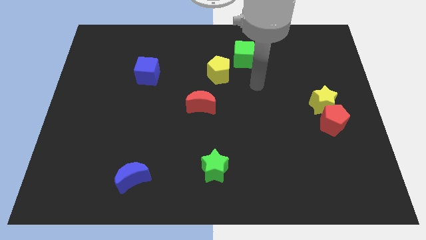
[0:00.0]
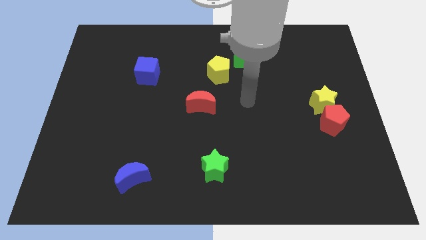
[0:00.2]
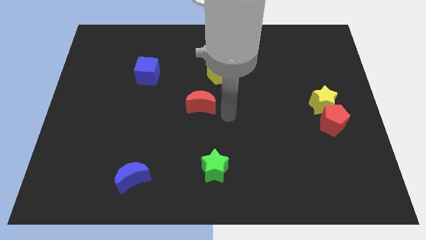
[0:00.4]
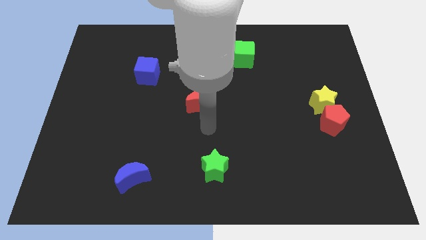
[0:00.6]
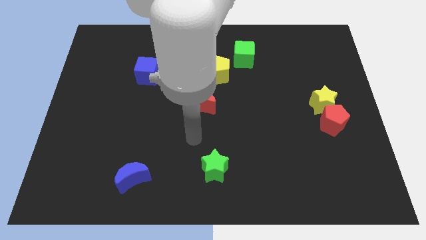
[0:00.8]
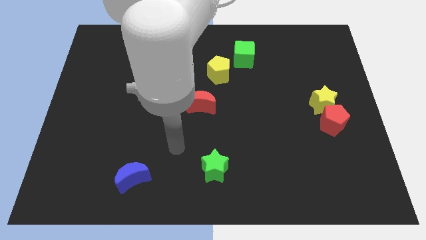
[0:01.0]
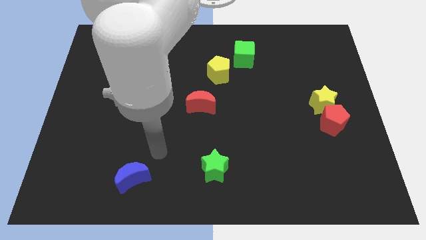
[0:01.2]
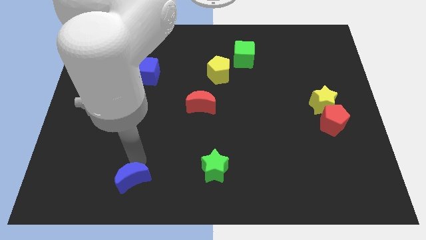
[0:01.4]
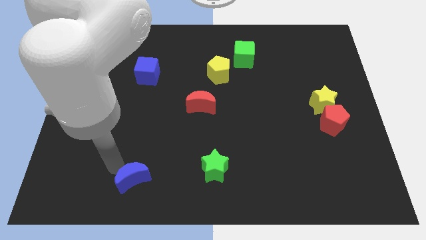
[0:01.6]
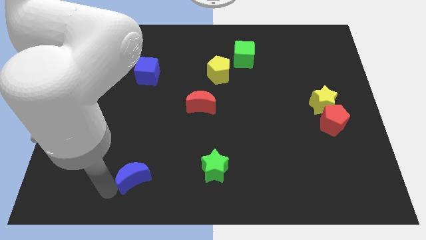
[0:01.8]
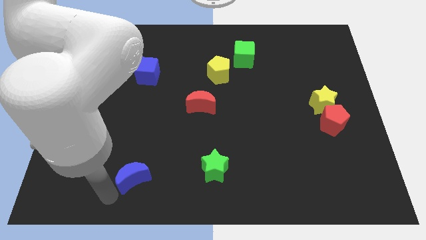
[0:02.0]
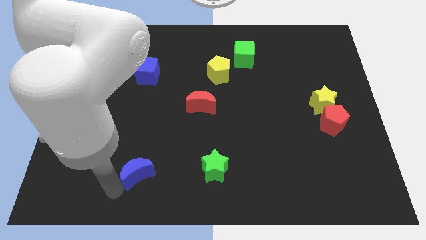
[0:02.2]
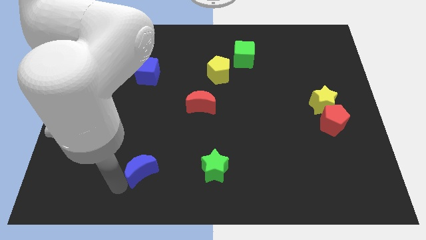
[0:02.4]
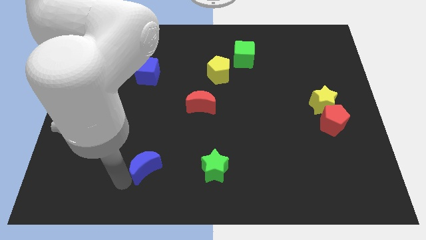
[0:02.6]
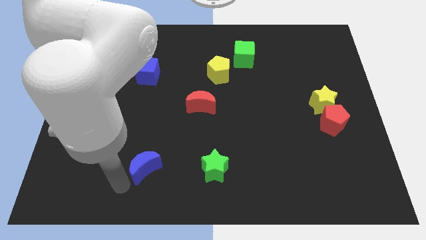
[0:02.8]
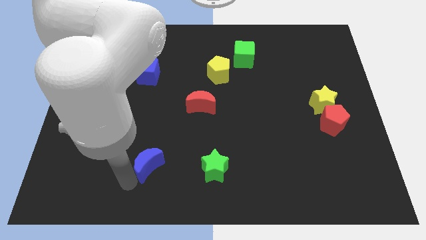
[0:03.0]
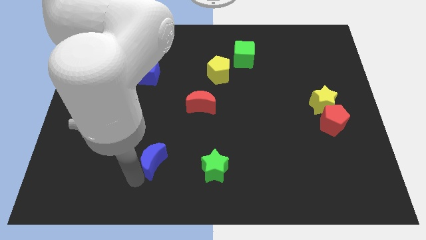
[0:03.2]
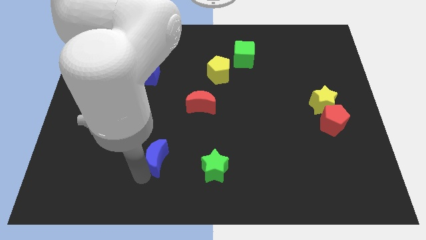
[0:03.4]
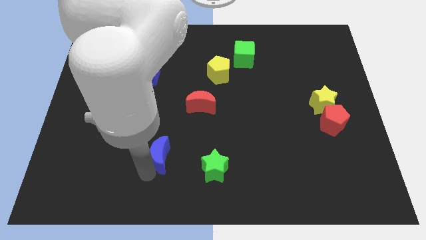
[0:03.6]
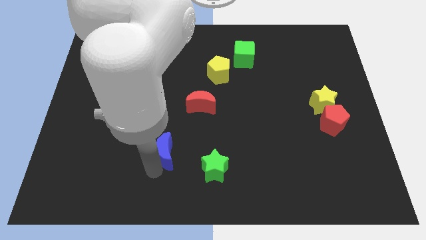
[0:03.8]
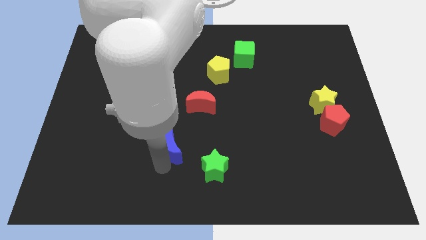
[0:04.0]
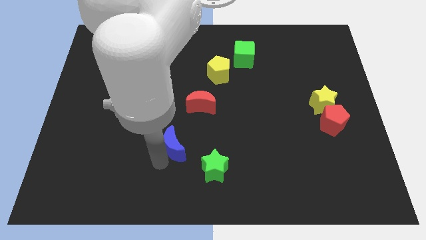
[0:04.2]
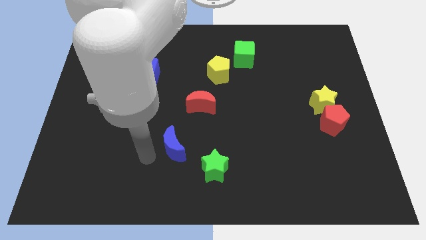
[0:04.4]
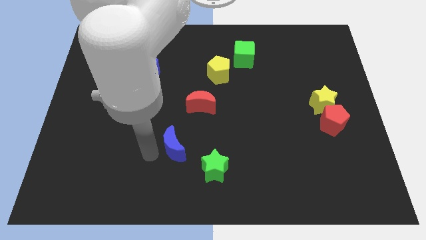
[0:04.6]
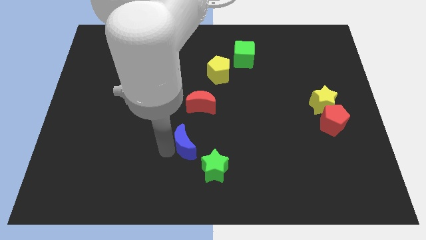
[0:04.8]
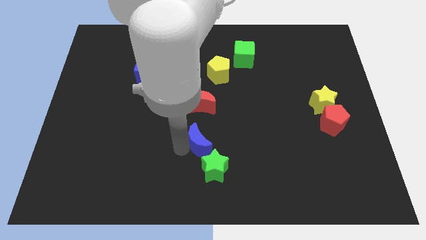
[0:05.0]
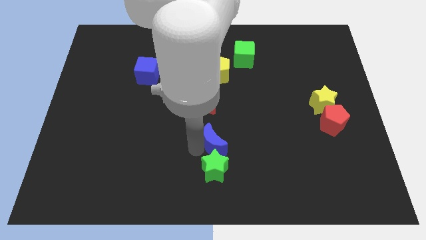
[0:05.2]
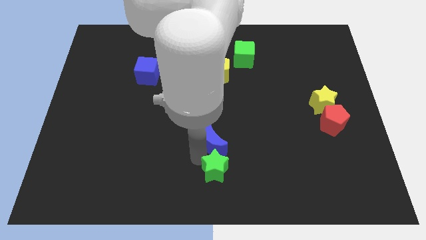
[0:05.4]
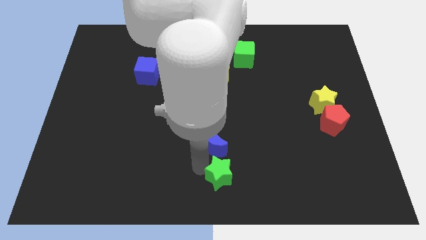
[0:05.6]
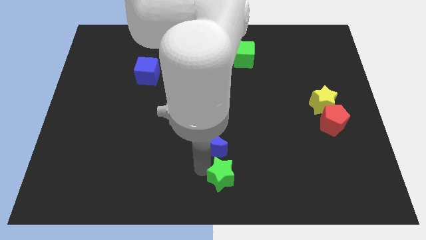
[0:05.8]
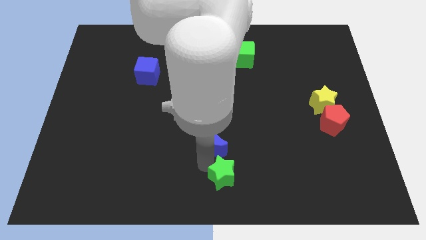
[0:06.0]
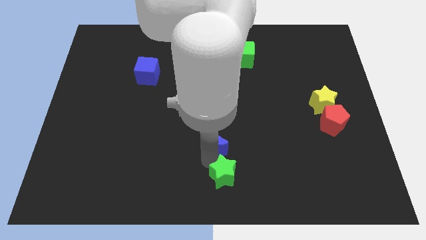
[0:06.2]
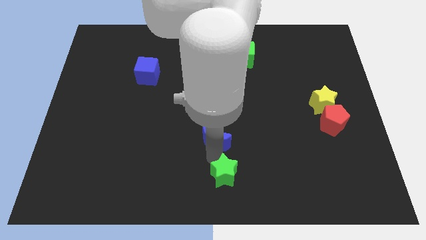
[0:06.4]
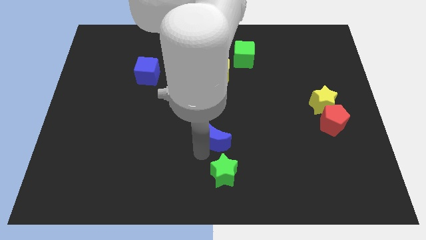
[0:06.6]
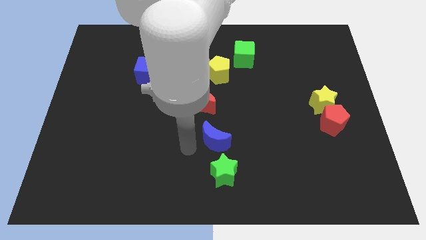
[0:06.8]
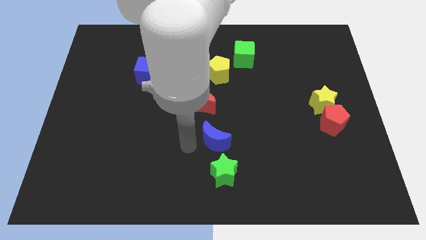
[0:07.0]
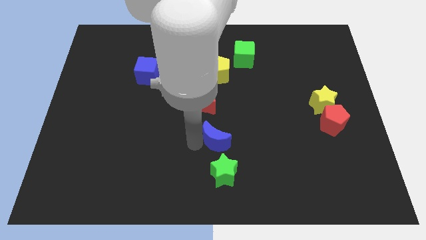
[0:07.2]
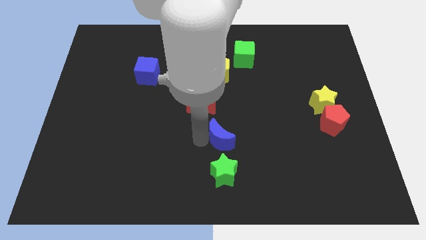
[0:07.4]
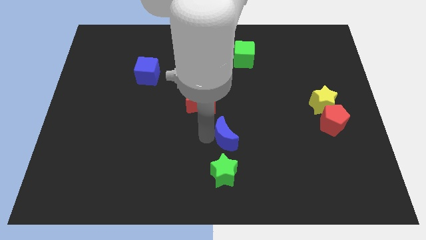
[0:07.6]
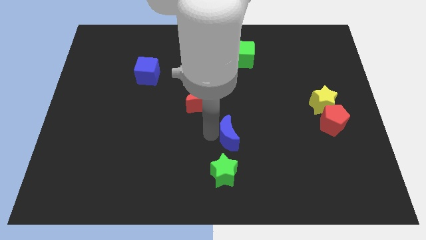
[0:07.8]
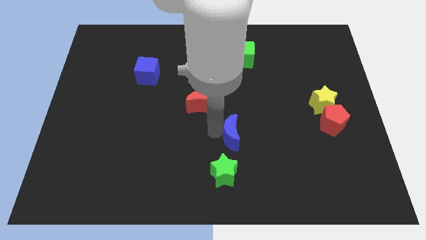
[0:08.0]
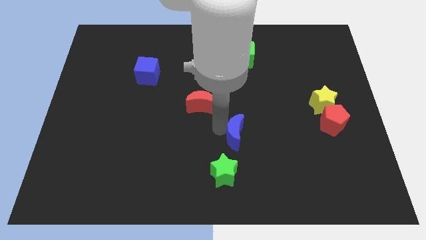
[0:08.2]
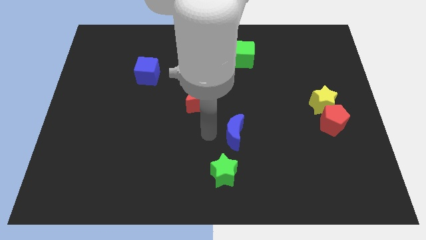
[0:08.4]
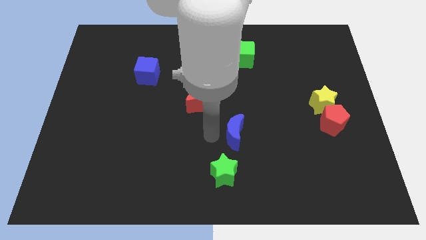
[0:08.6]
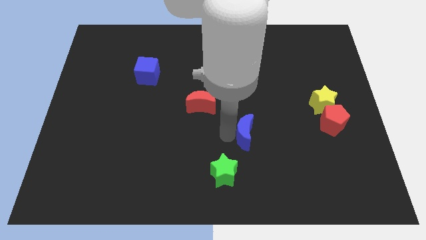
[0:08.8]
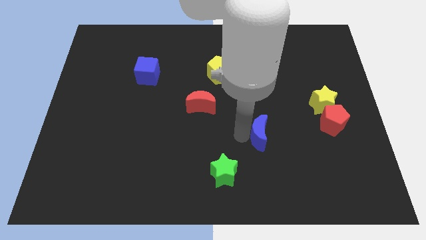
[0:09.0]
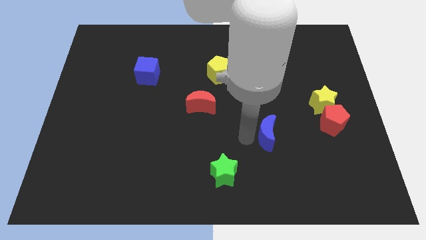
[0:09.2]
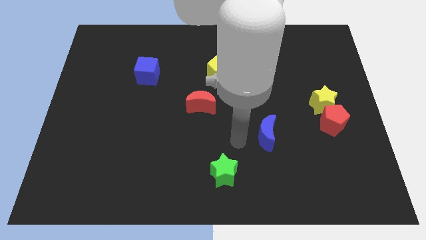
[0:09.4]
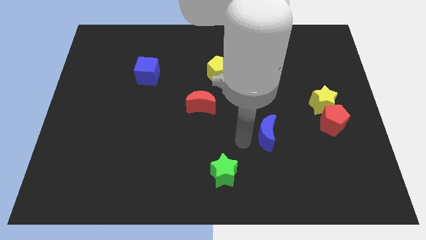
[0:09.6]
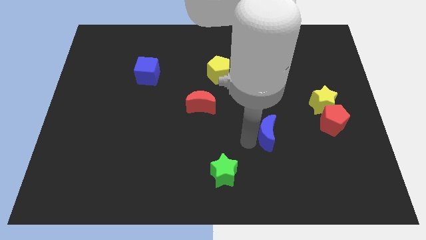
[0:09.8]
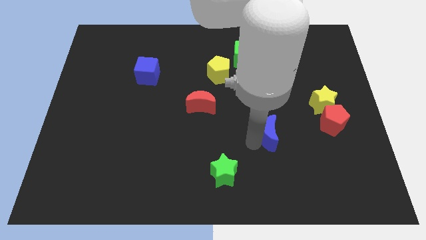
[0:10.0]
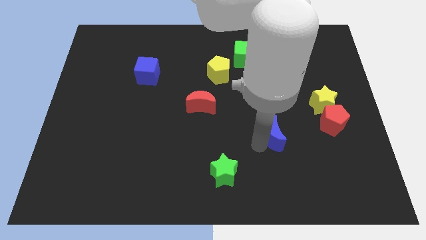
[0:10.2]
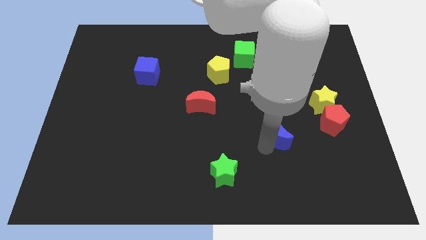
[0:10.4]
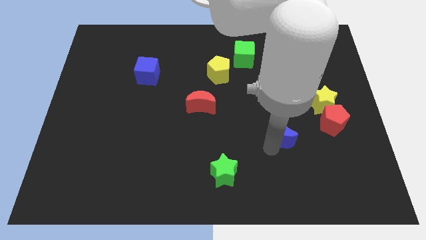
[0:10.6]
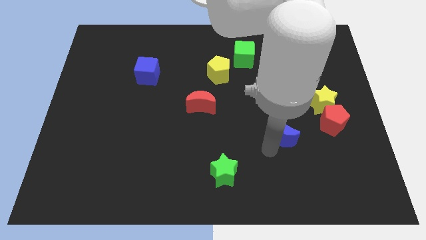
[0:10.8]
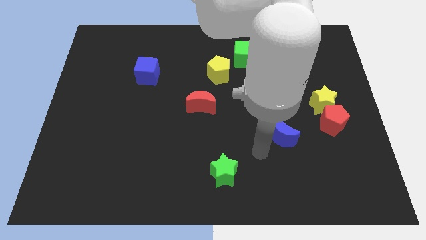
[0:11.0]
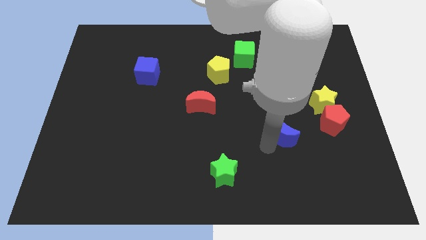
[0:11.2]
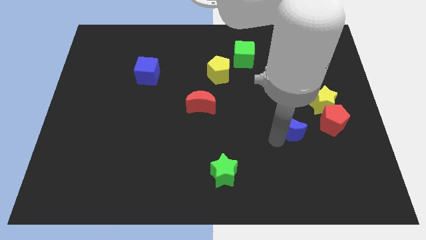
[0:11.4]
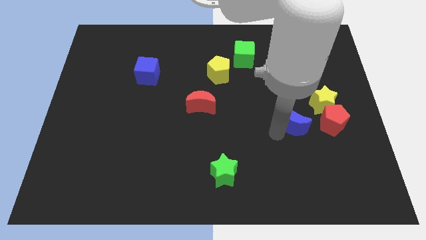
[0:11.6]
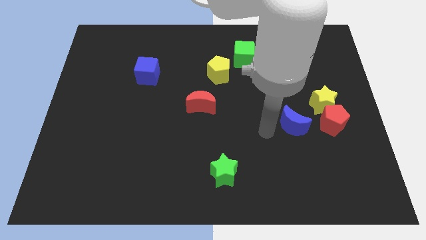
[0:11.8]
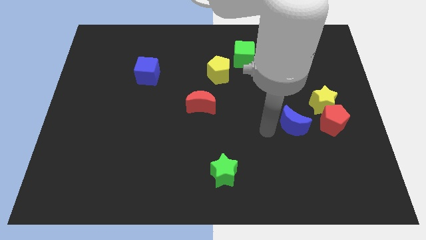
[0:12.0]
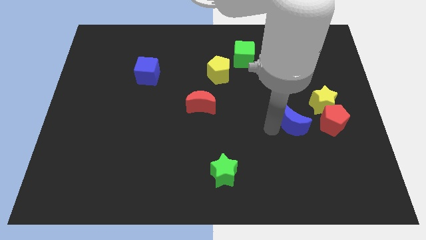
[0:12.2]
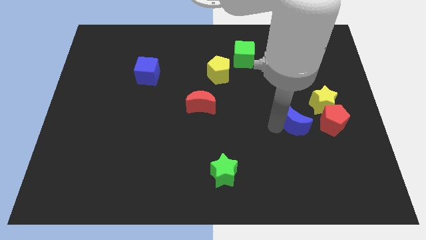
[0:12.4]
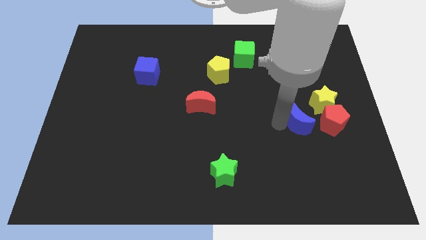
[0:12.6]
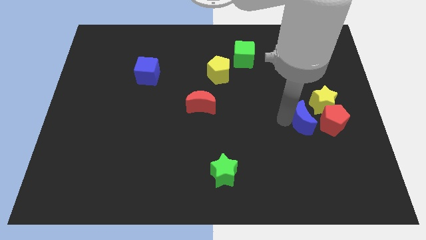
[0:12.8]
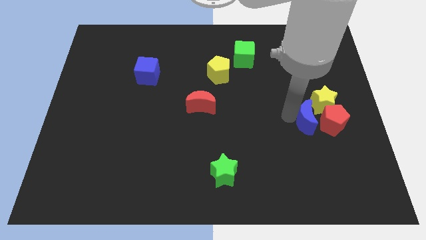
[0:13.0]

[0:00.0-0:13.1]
move the blue moon close to the red pentagon

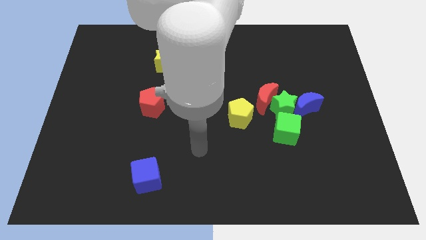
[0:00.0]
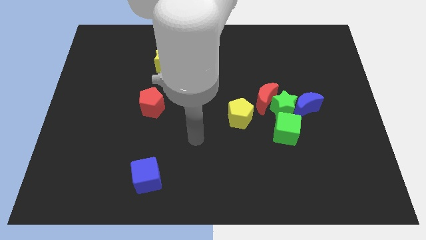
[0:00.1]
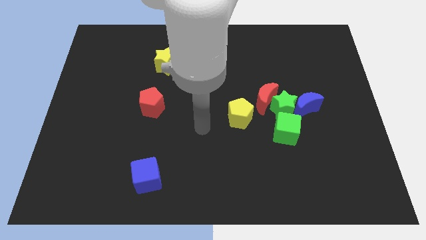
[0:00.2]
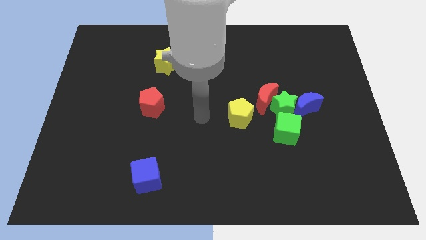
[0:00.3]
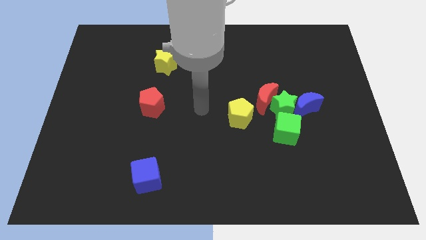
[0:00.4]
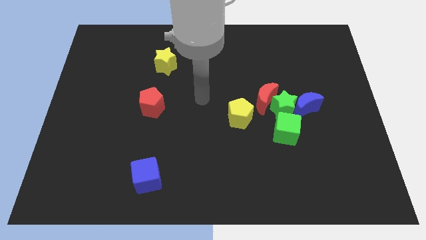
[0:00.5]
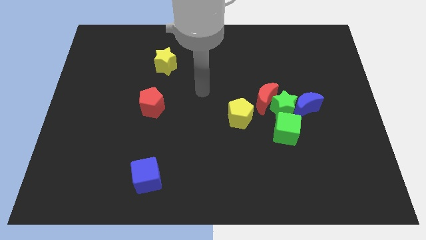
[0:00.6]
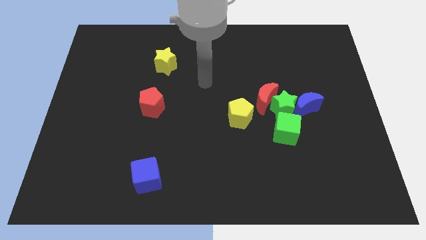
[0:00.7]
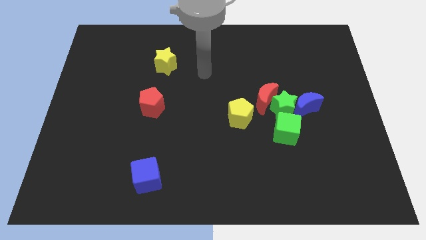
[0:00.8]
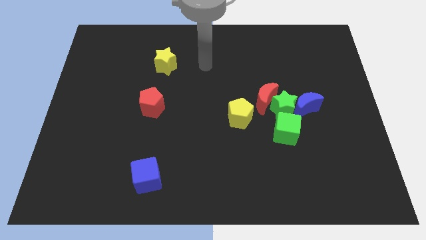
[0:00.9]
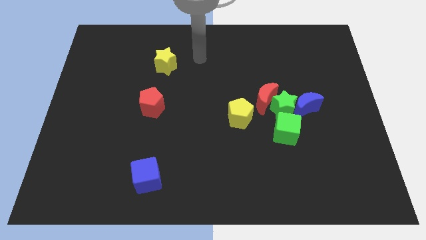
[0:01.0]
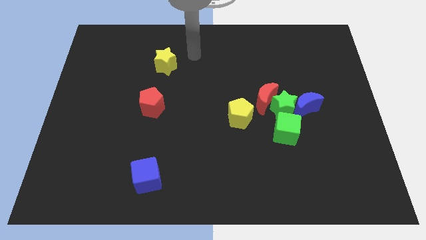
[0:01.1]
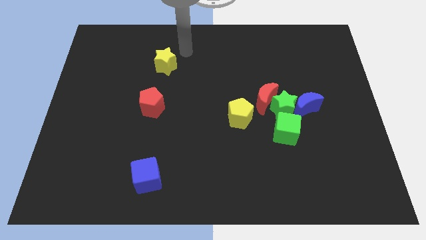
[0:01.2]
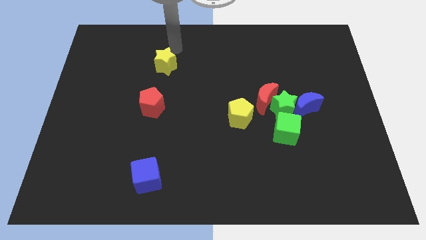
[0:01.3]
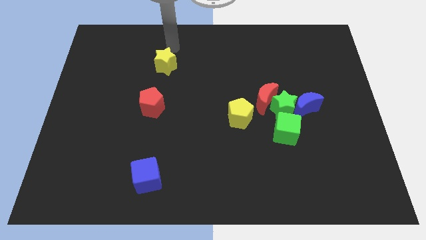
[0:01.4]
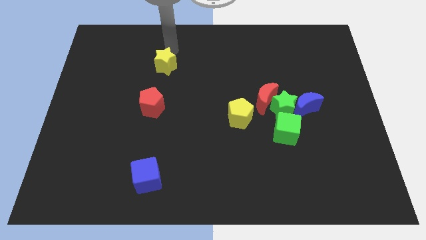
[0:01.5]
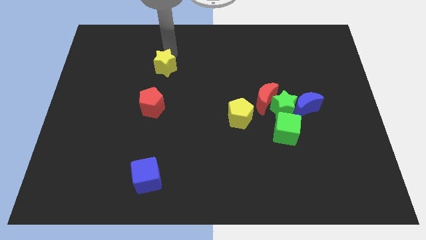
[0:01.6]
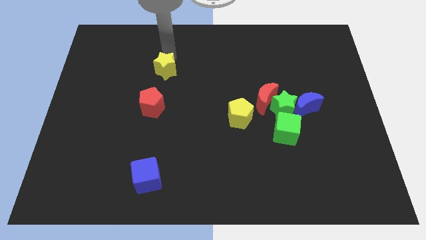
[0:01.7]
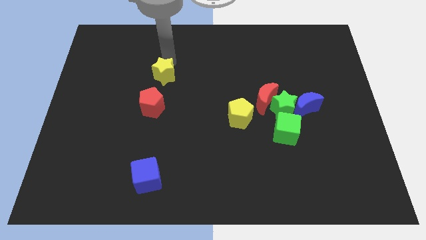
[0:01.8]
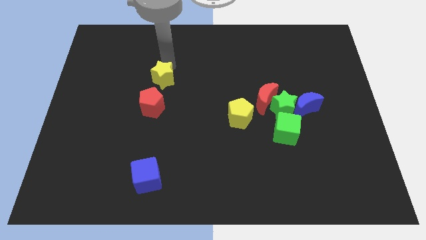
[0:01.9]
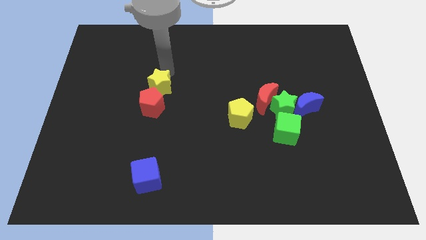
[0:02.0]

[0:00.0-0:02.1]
slide the yellow star to the red pentagon
